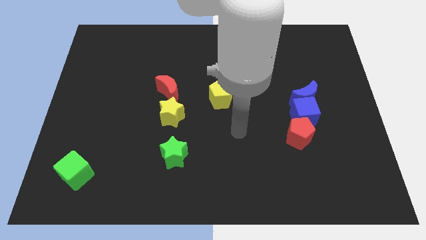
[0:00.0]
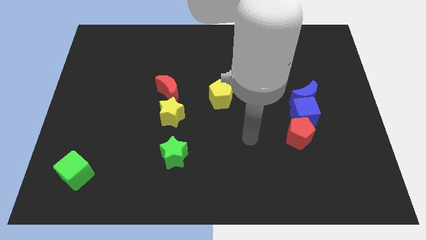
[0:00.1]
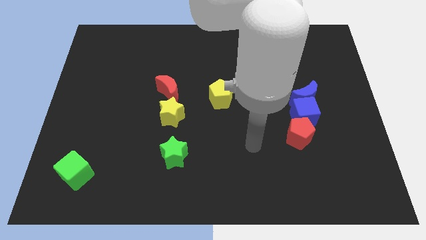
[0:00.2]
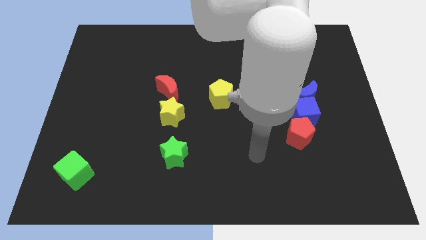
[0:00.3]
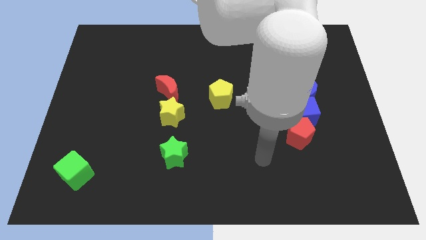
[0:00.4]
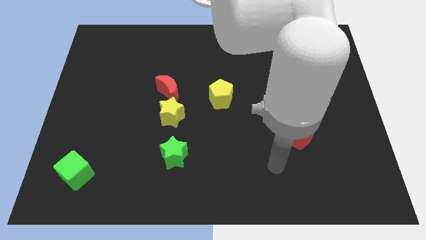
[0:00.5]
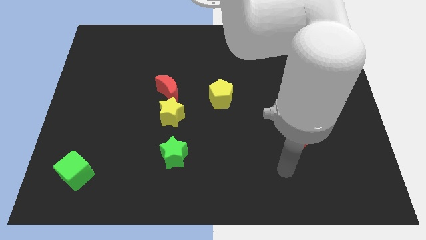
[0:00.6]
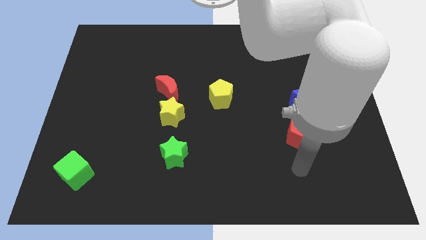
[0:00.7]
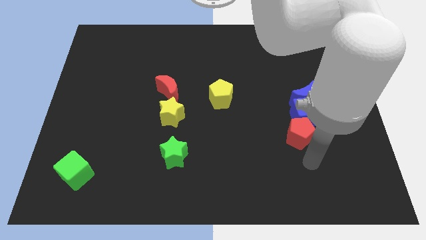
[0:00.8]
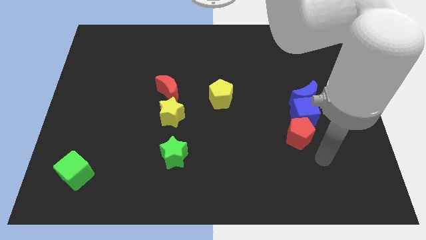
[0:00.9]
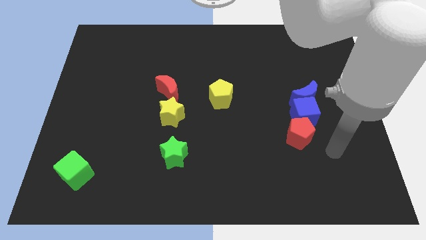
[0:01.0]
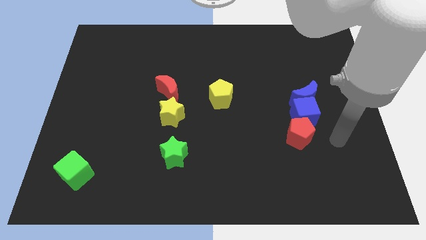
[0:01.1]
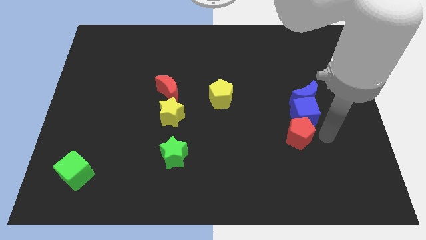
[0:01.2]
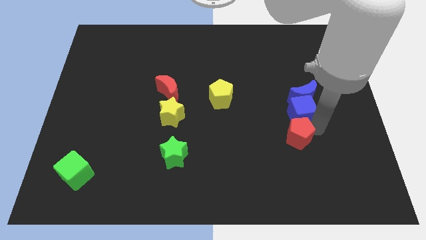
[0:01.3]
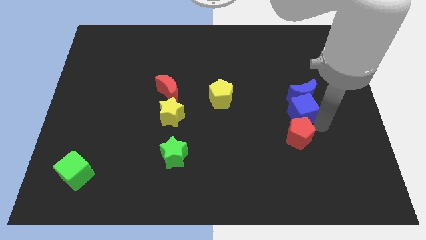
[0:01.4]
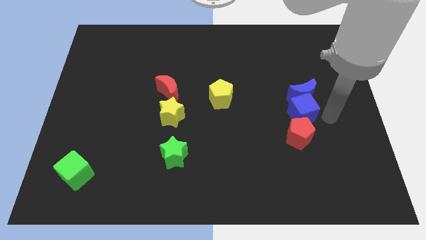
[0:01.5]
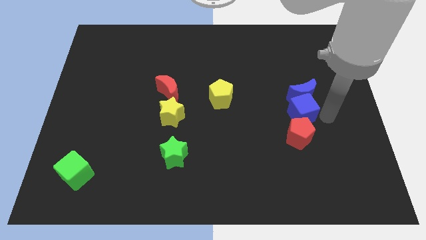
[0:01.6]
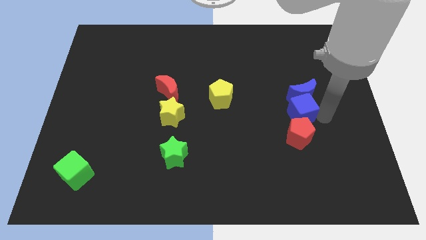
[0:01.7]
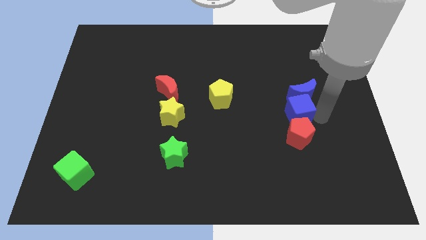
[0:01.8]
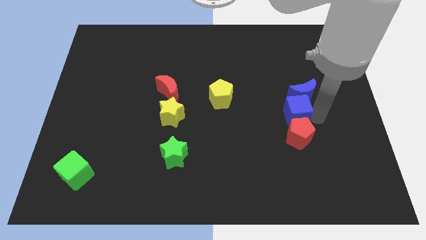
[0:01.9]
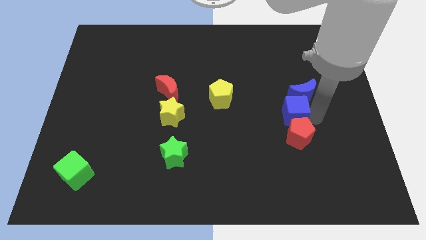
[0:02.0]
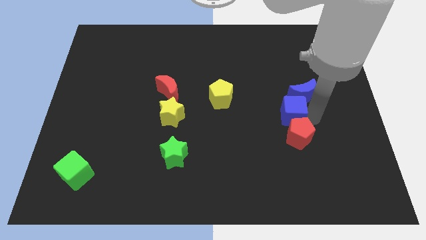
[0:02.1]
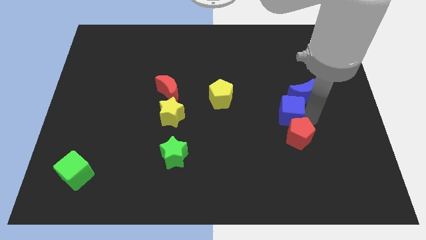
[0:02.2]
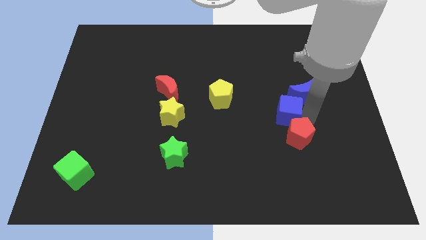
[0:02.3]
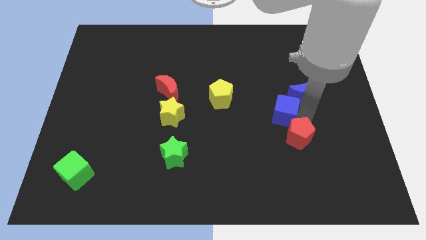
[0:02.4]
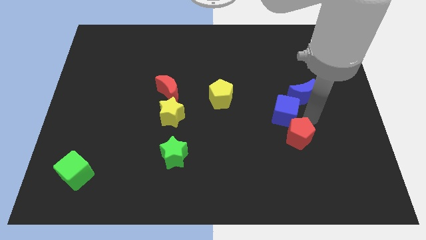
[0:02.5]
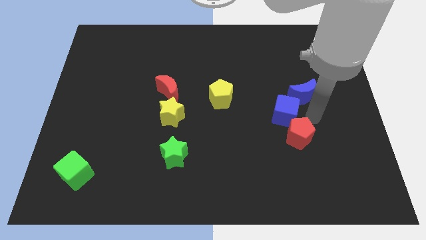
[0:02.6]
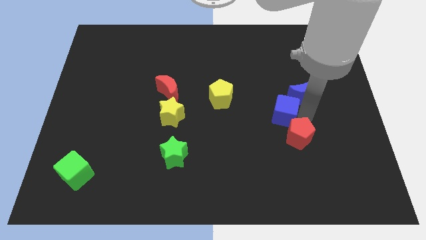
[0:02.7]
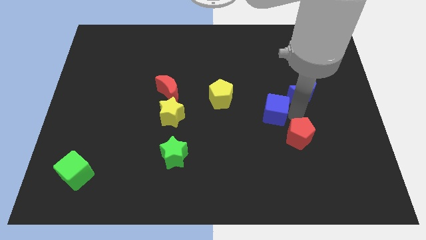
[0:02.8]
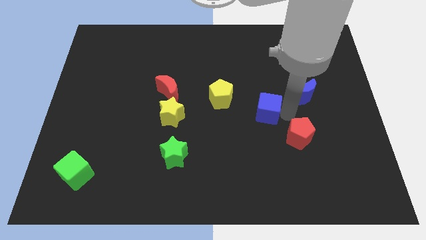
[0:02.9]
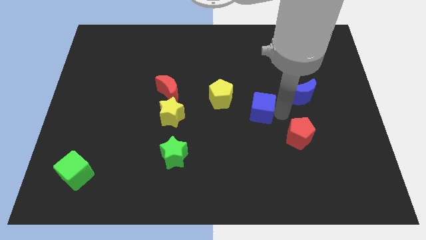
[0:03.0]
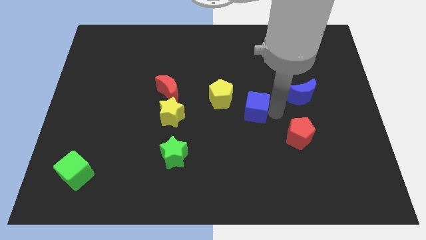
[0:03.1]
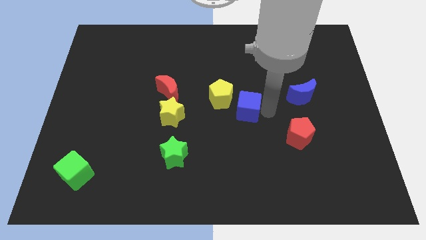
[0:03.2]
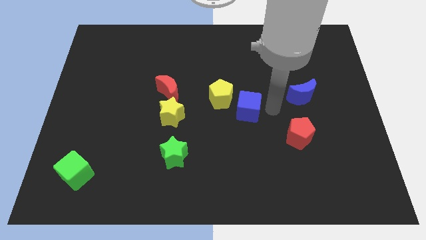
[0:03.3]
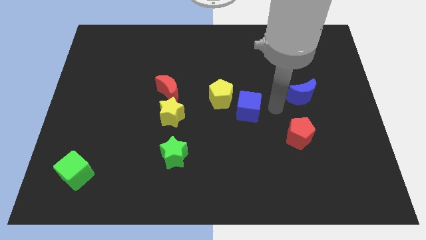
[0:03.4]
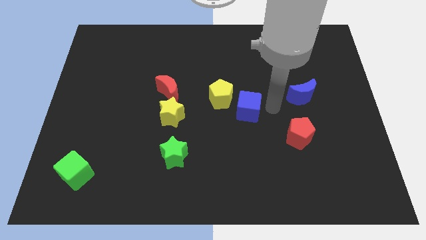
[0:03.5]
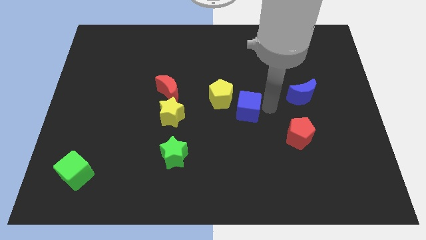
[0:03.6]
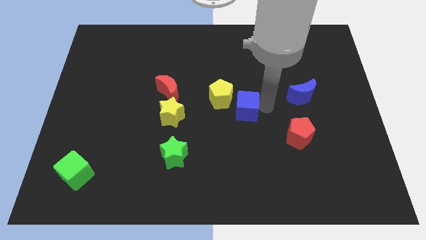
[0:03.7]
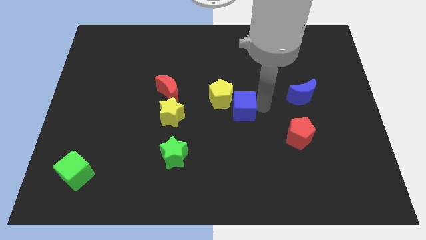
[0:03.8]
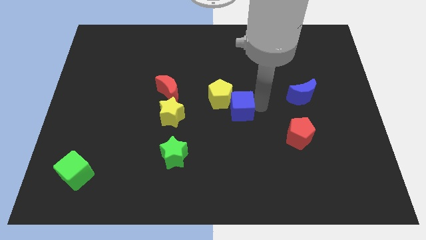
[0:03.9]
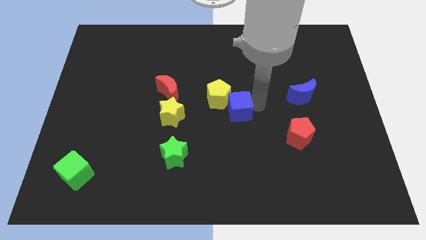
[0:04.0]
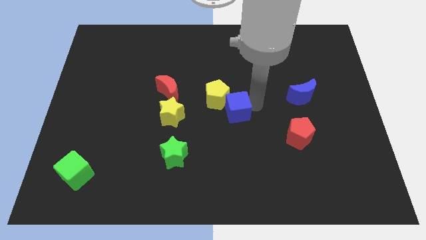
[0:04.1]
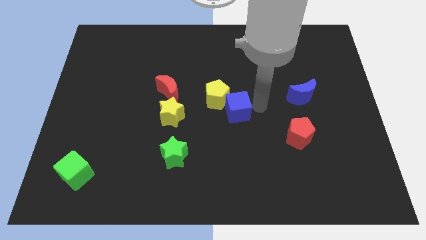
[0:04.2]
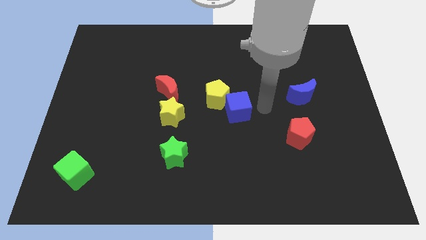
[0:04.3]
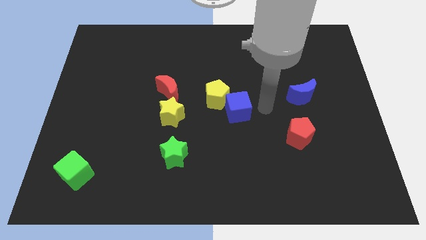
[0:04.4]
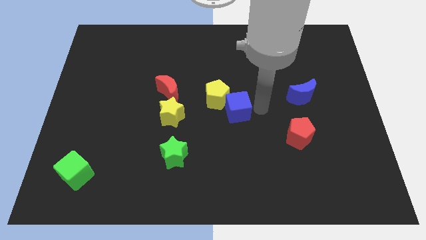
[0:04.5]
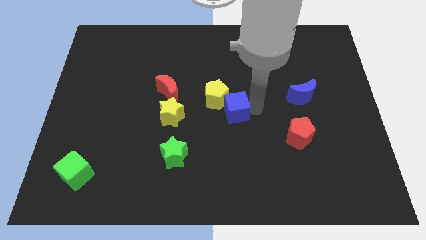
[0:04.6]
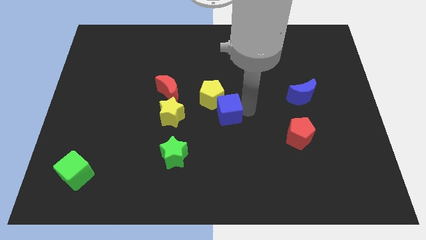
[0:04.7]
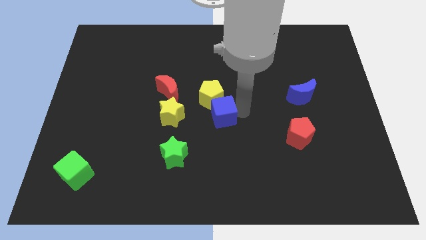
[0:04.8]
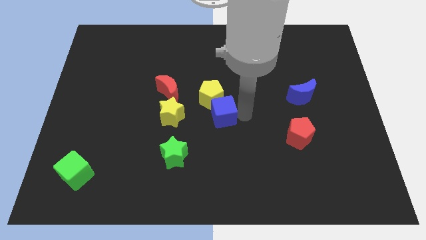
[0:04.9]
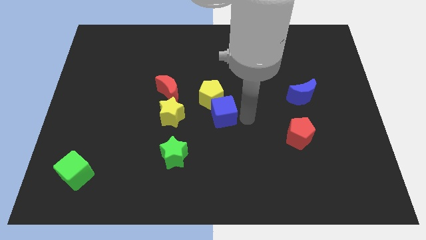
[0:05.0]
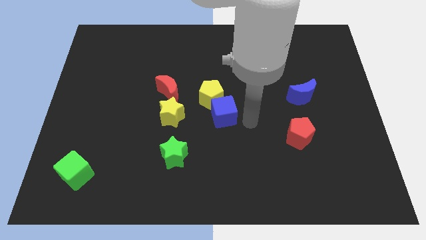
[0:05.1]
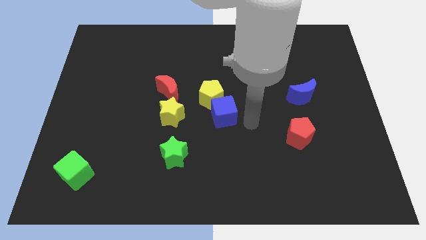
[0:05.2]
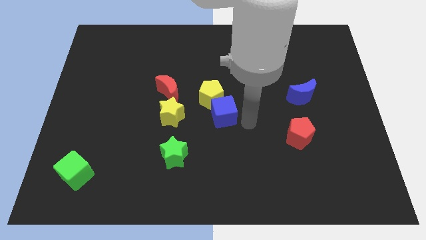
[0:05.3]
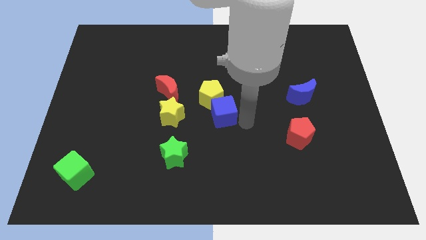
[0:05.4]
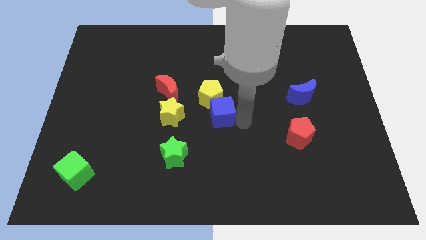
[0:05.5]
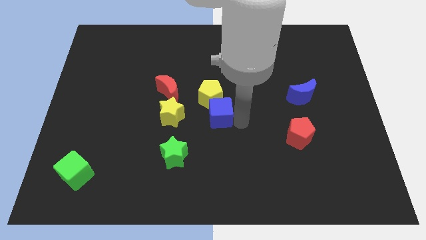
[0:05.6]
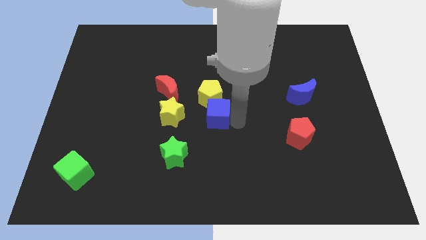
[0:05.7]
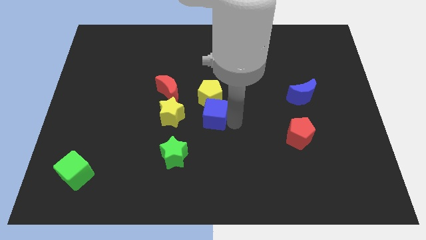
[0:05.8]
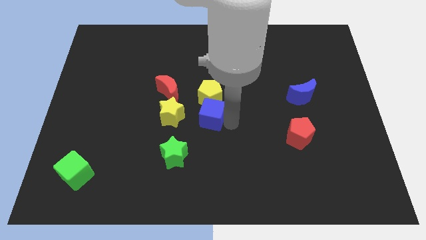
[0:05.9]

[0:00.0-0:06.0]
put the blue cube diagonally down and to the right of the red moon

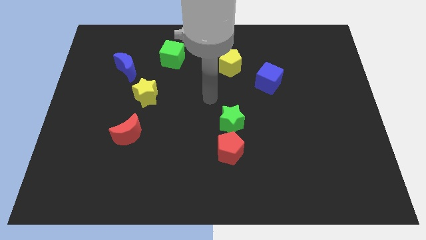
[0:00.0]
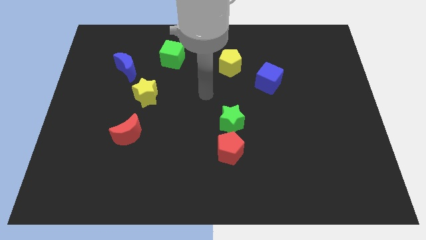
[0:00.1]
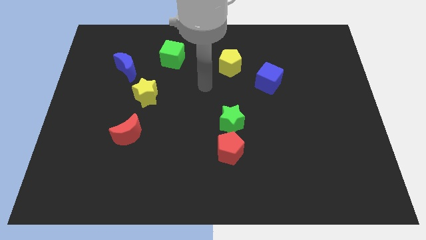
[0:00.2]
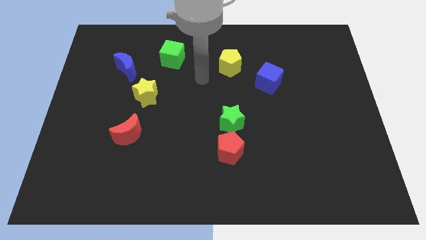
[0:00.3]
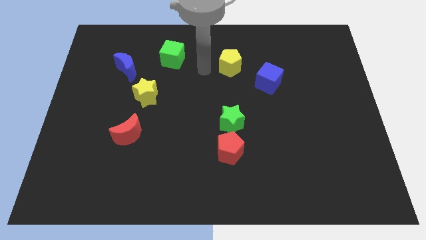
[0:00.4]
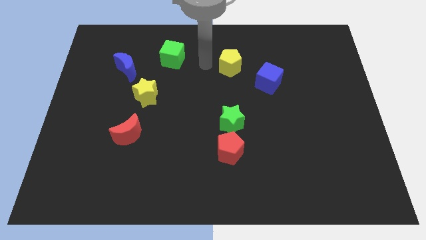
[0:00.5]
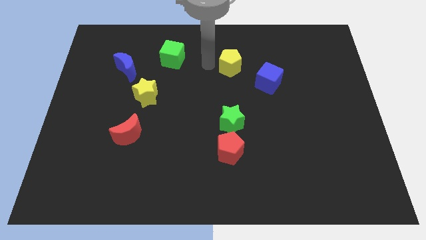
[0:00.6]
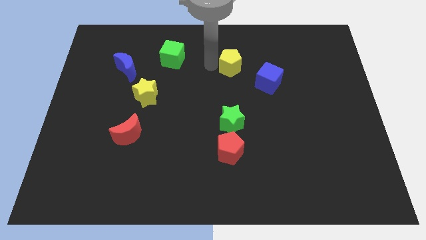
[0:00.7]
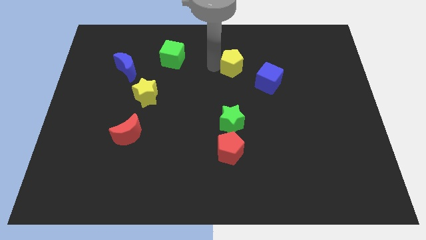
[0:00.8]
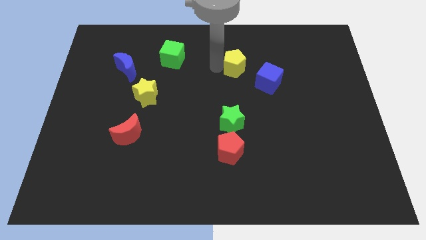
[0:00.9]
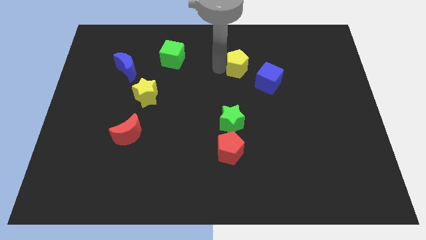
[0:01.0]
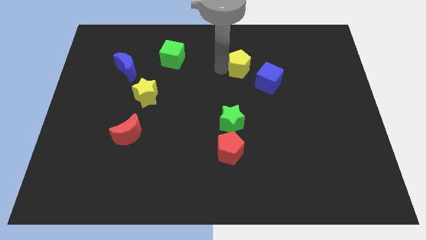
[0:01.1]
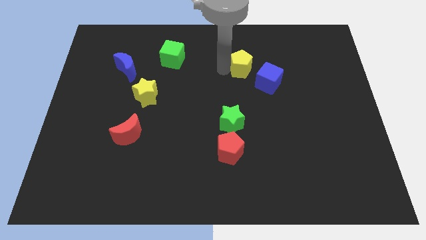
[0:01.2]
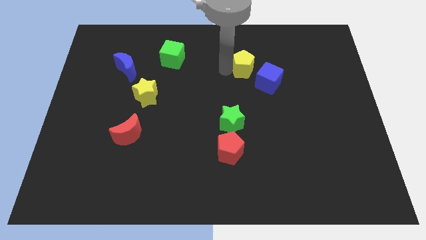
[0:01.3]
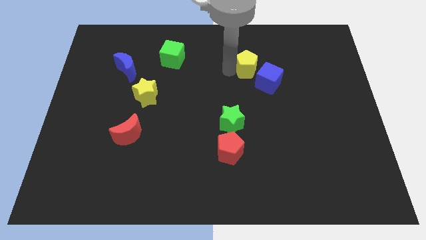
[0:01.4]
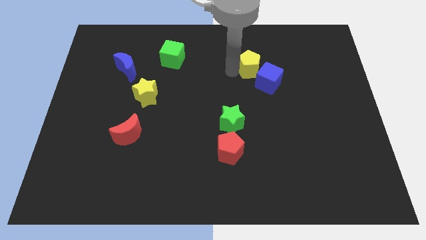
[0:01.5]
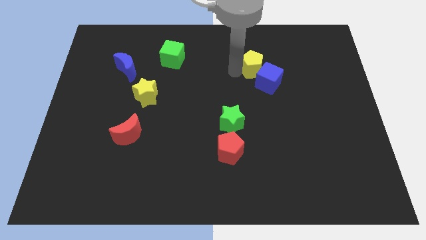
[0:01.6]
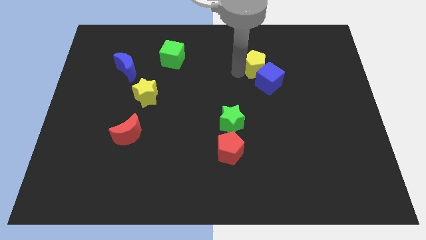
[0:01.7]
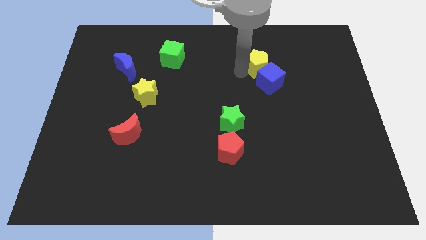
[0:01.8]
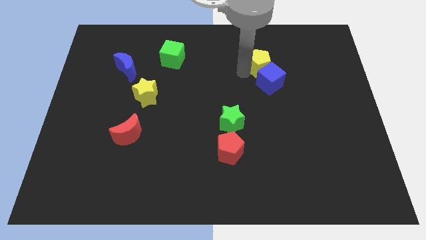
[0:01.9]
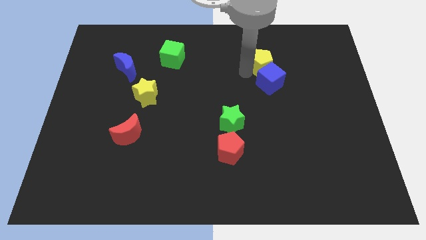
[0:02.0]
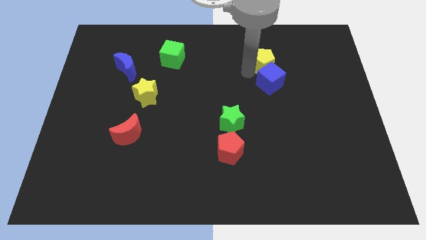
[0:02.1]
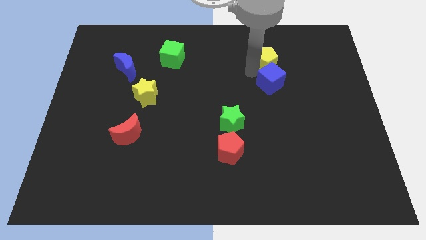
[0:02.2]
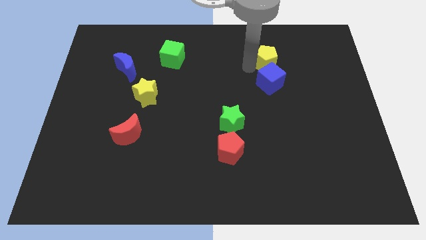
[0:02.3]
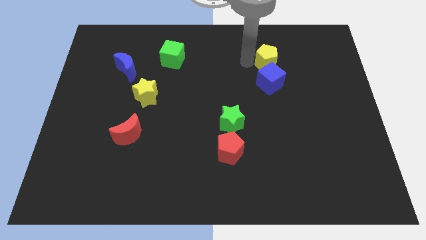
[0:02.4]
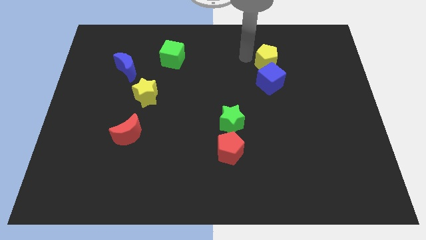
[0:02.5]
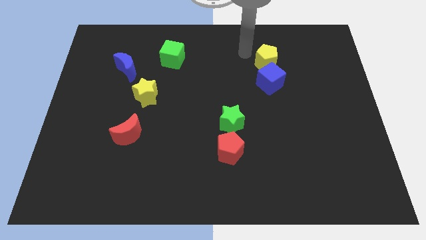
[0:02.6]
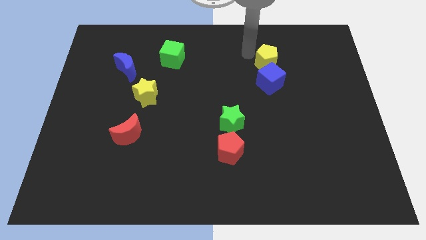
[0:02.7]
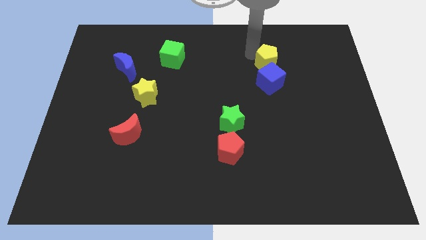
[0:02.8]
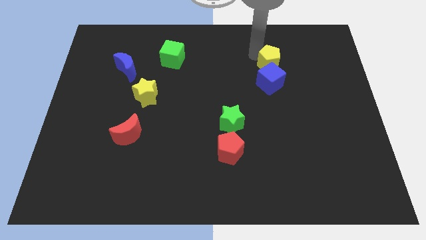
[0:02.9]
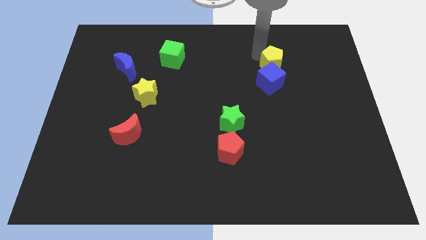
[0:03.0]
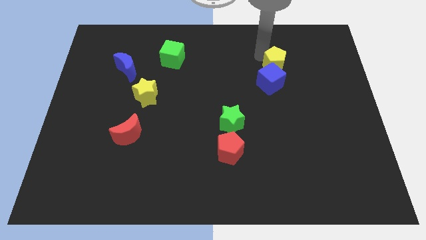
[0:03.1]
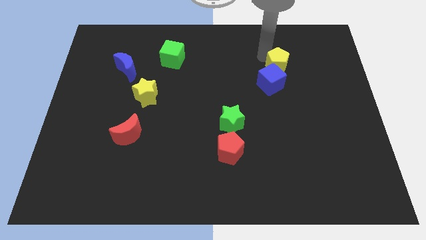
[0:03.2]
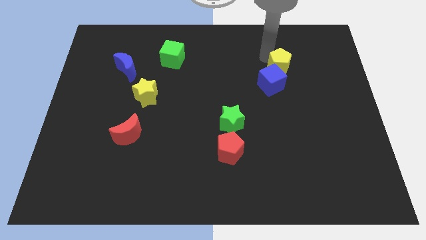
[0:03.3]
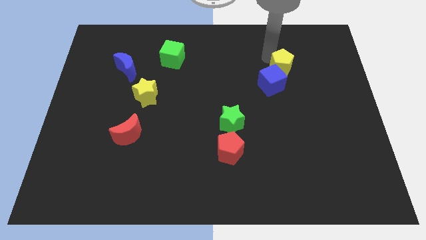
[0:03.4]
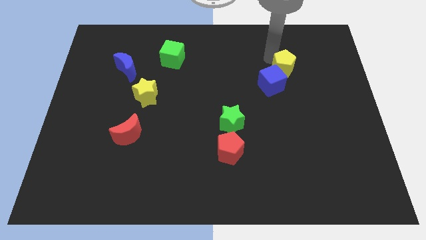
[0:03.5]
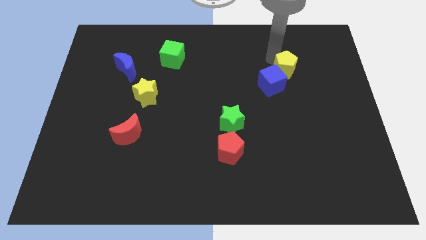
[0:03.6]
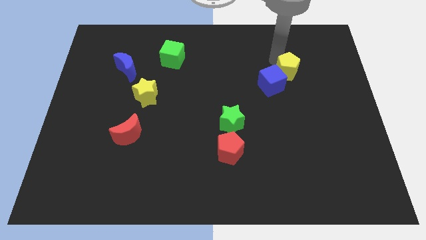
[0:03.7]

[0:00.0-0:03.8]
put the yellow pentagon to the right of the blue cube
